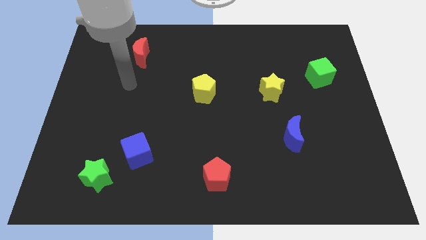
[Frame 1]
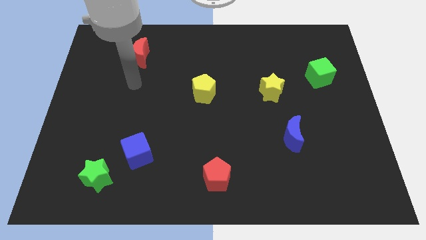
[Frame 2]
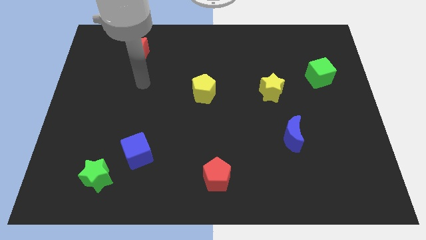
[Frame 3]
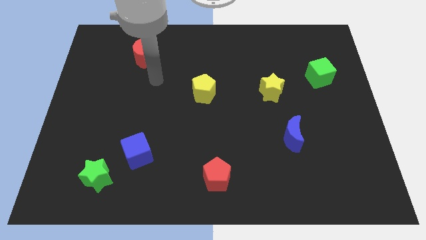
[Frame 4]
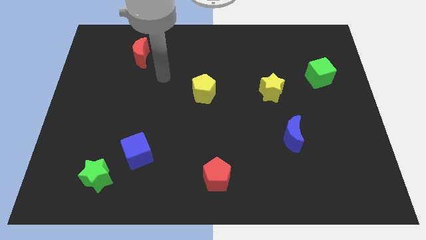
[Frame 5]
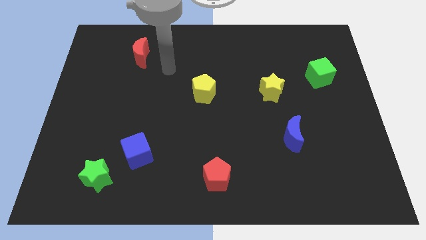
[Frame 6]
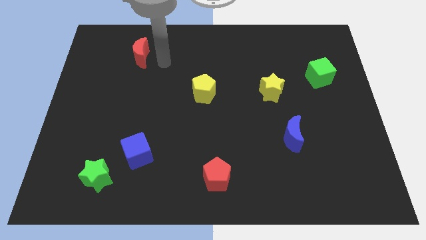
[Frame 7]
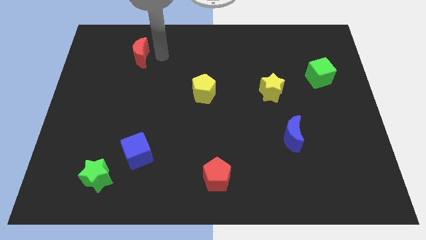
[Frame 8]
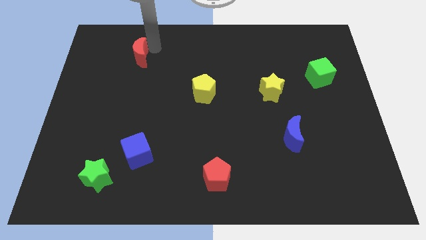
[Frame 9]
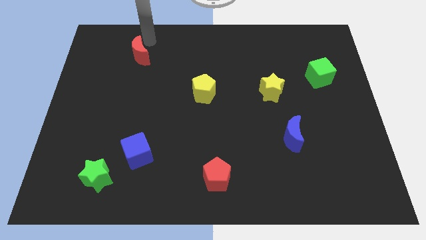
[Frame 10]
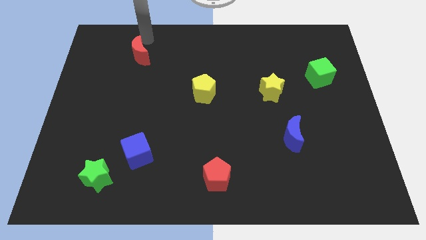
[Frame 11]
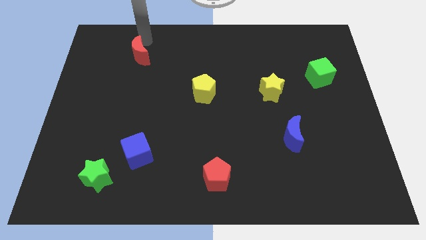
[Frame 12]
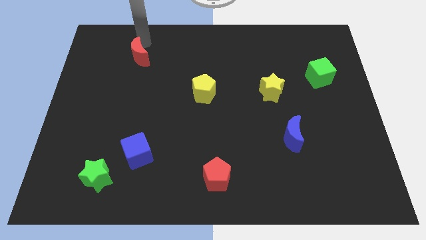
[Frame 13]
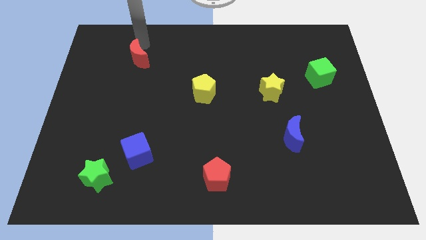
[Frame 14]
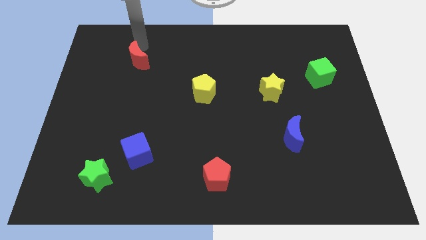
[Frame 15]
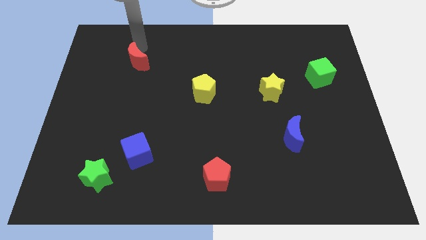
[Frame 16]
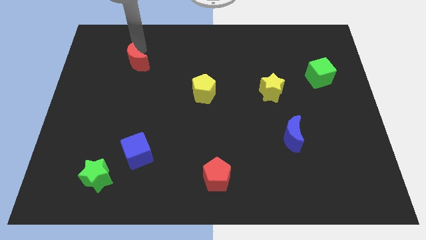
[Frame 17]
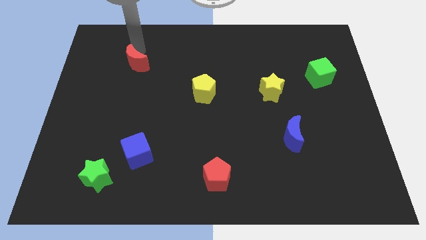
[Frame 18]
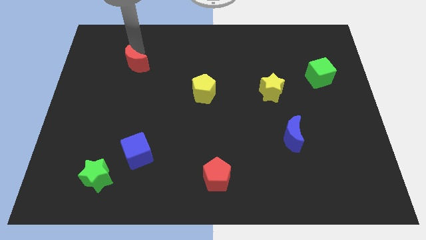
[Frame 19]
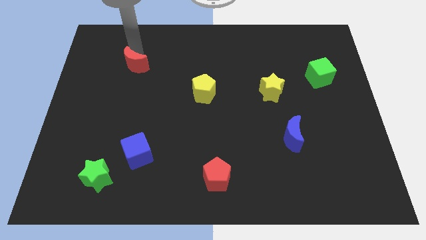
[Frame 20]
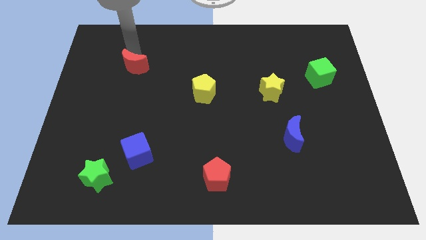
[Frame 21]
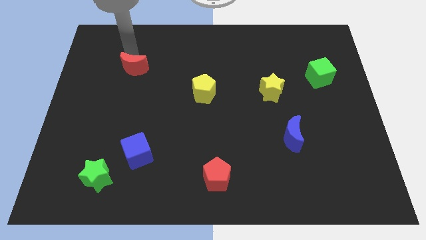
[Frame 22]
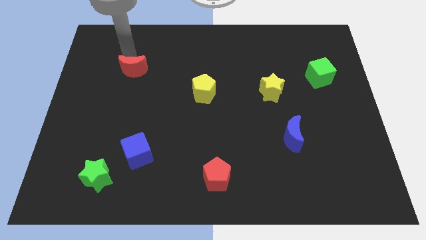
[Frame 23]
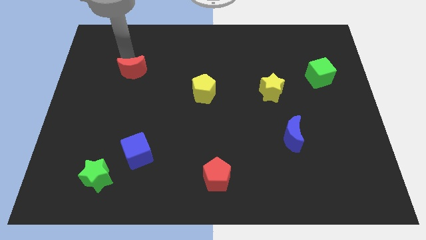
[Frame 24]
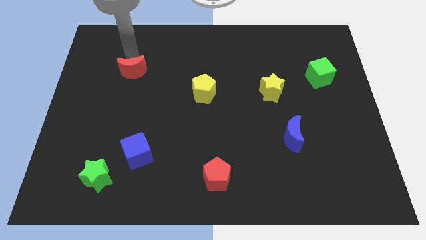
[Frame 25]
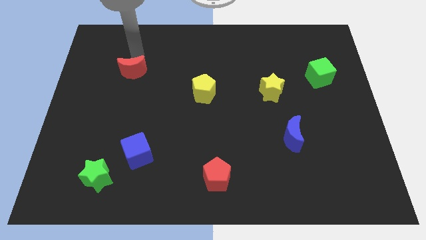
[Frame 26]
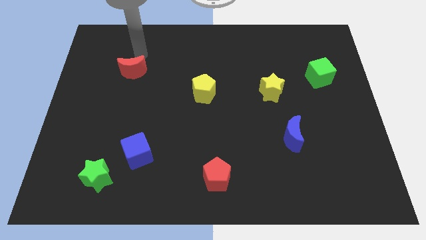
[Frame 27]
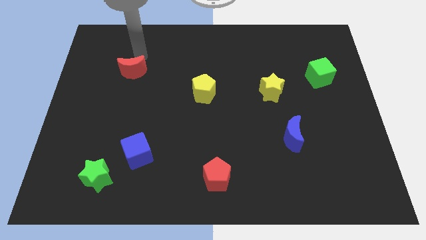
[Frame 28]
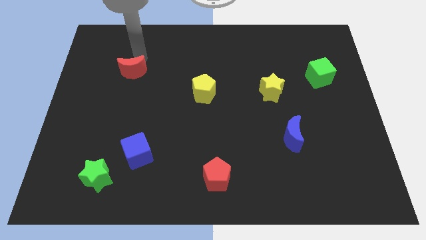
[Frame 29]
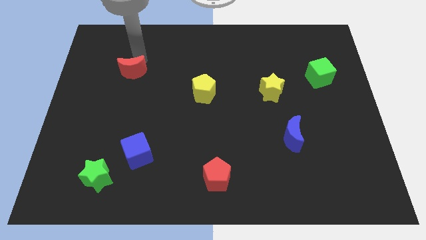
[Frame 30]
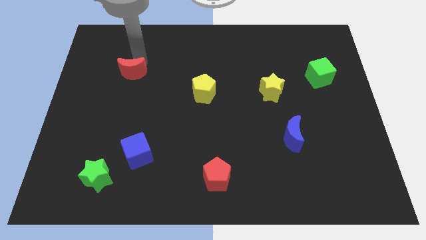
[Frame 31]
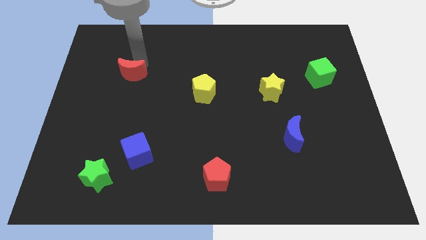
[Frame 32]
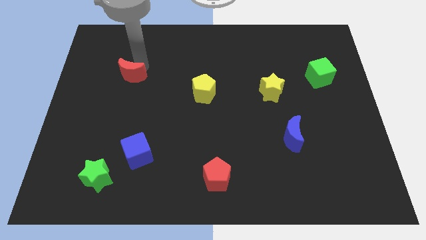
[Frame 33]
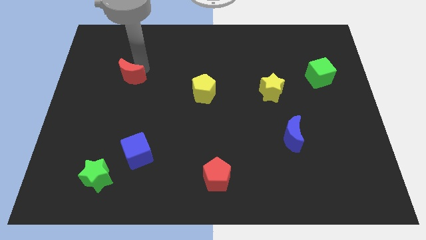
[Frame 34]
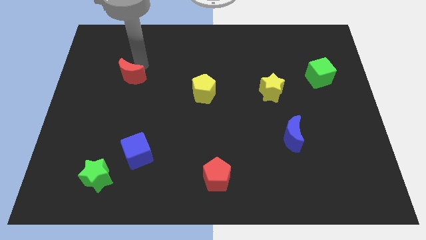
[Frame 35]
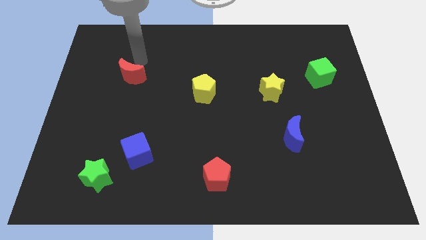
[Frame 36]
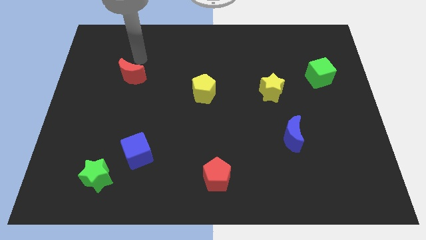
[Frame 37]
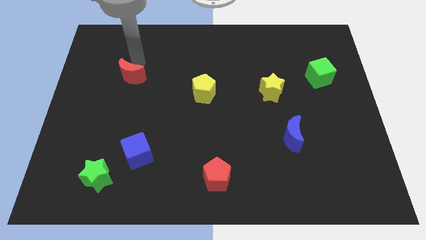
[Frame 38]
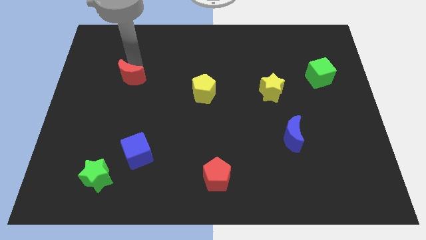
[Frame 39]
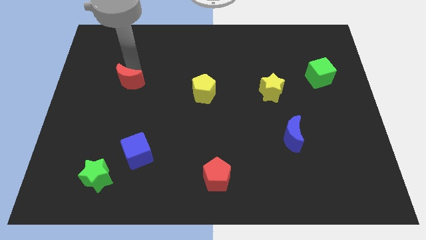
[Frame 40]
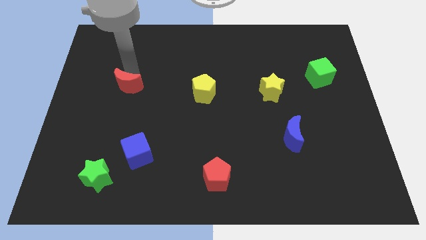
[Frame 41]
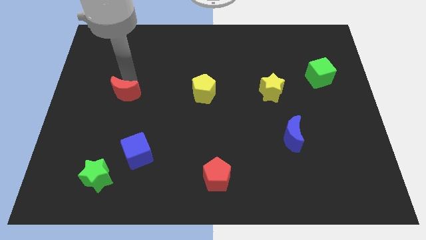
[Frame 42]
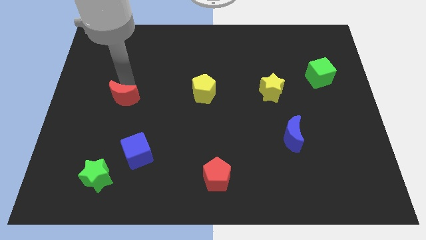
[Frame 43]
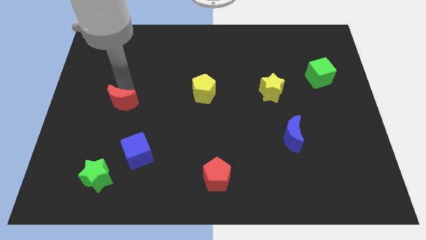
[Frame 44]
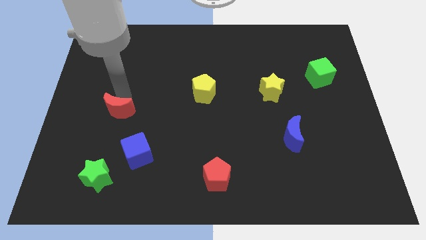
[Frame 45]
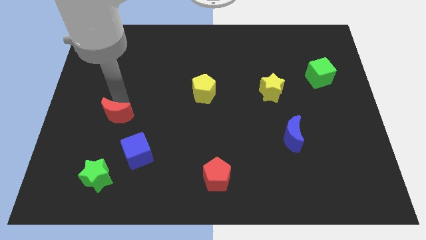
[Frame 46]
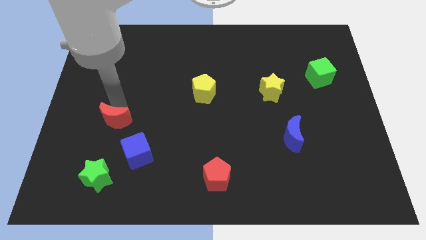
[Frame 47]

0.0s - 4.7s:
slide the red moon downwards

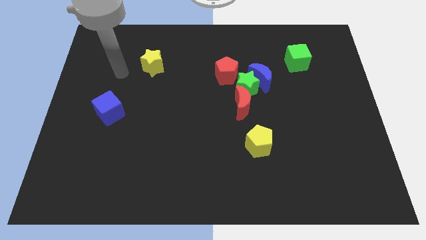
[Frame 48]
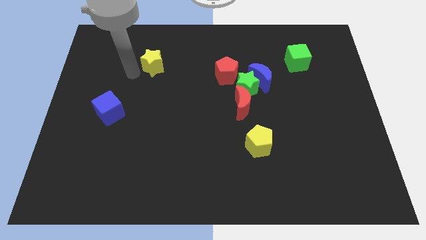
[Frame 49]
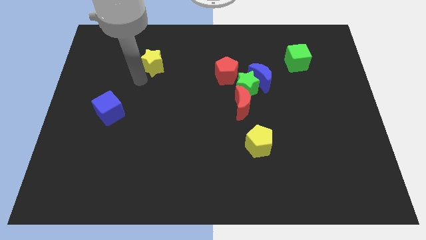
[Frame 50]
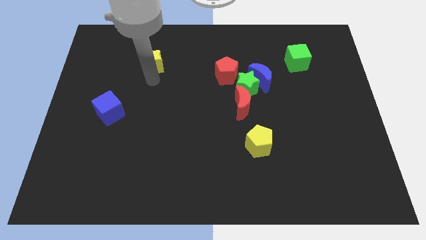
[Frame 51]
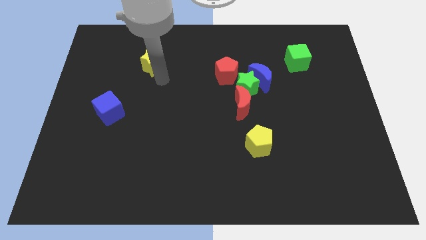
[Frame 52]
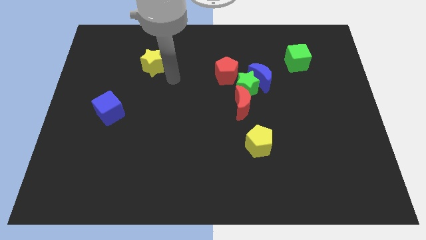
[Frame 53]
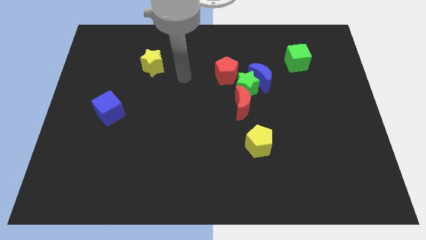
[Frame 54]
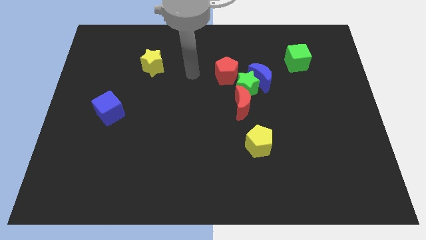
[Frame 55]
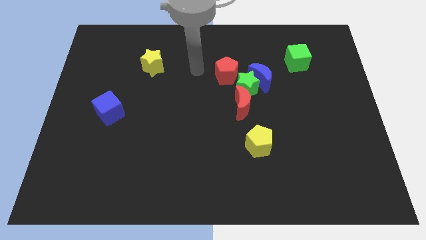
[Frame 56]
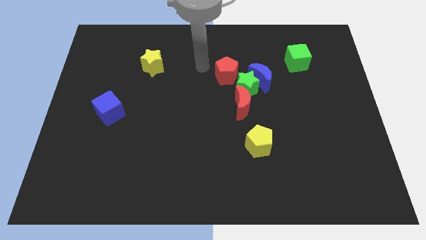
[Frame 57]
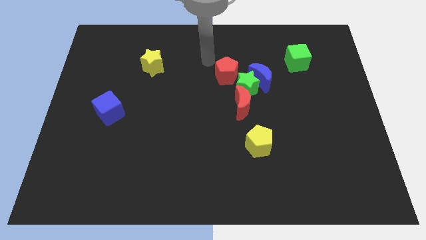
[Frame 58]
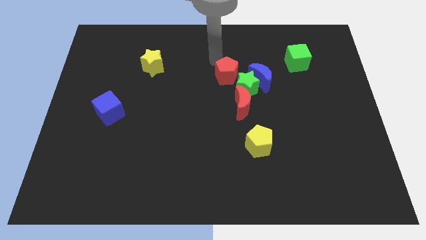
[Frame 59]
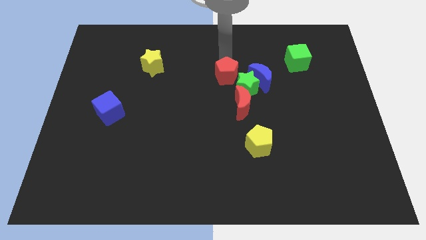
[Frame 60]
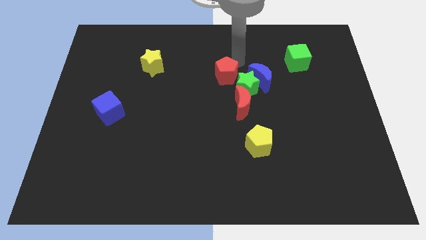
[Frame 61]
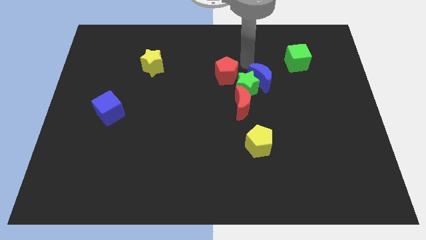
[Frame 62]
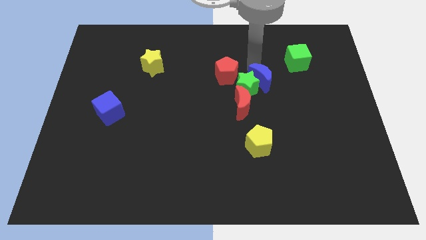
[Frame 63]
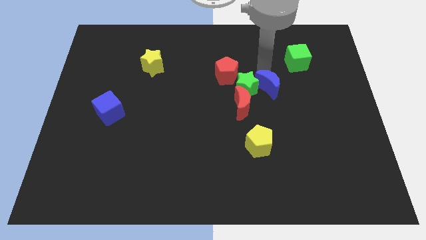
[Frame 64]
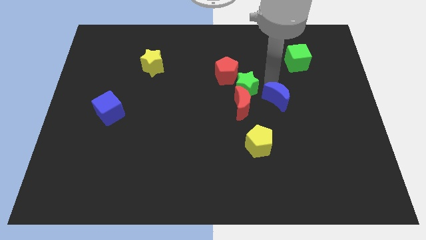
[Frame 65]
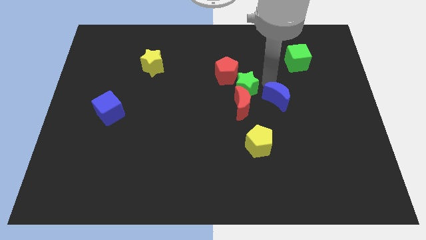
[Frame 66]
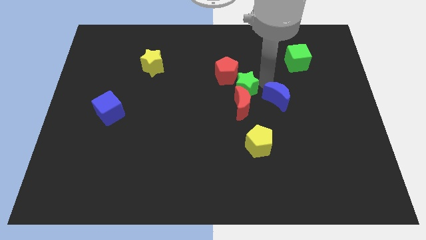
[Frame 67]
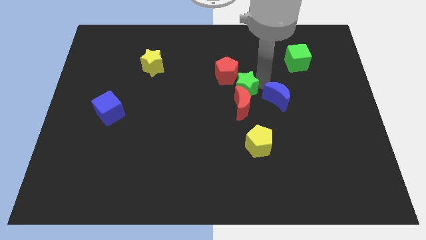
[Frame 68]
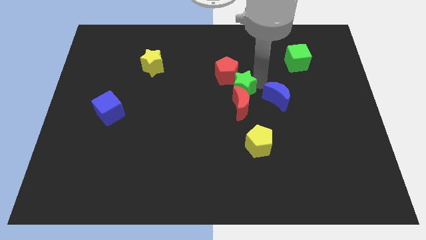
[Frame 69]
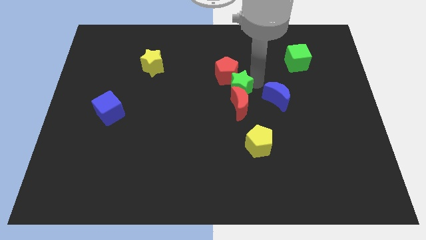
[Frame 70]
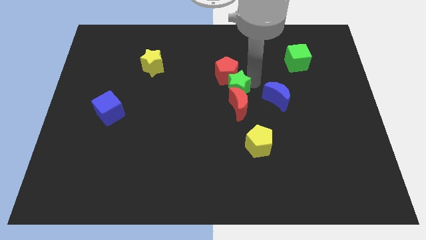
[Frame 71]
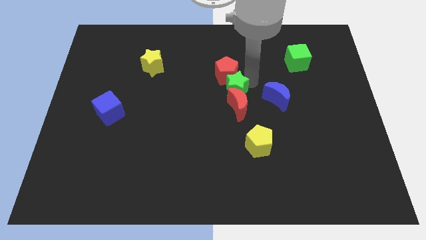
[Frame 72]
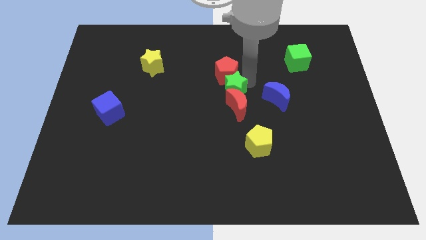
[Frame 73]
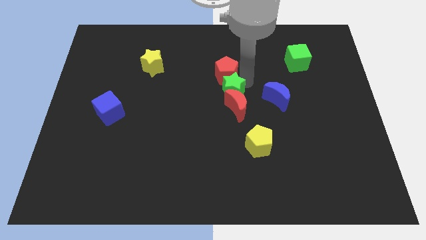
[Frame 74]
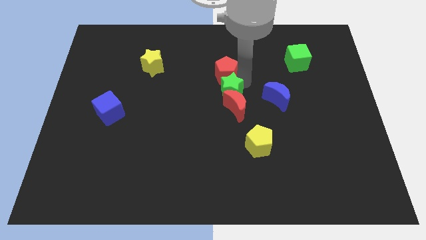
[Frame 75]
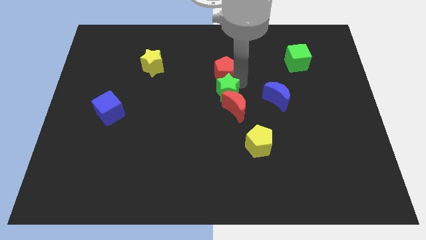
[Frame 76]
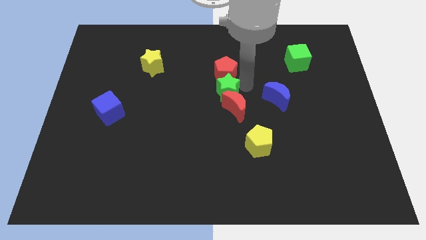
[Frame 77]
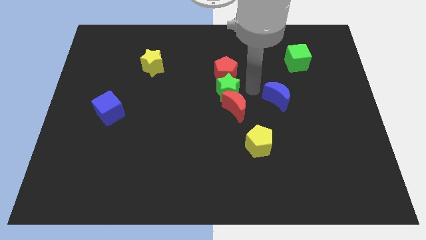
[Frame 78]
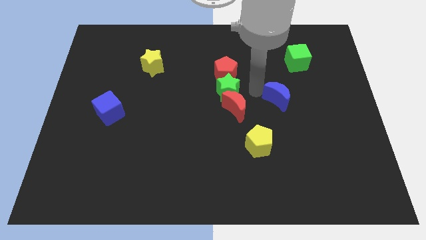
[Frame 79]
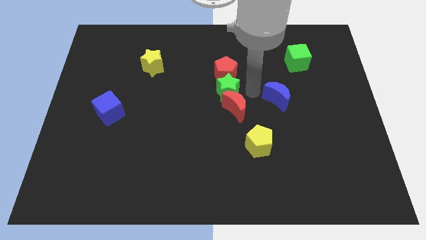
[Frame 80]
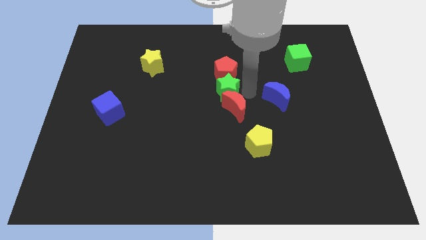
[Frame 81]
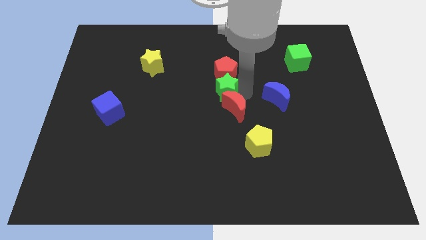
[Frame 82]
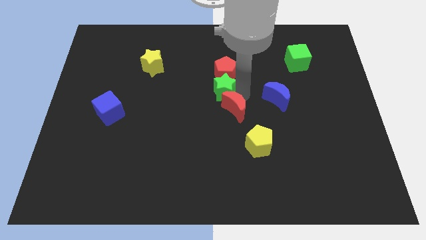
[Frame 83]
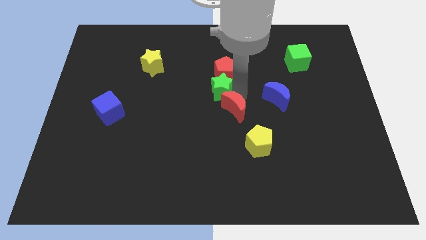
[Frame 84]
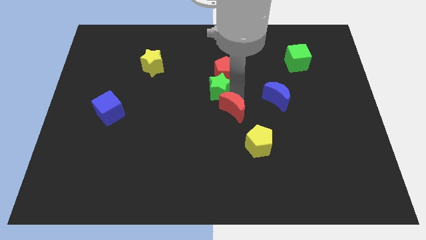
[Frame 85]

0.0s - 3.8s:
slide the green star slightly to the left

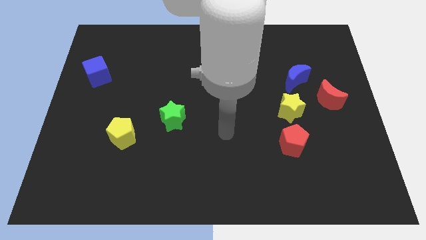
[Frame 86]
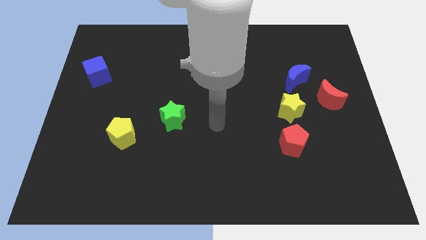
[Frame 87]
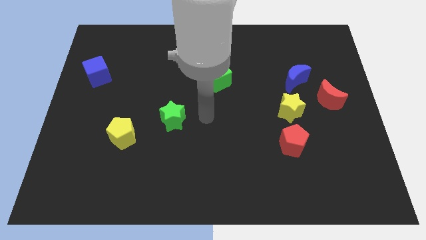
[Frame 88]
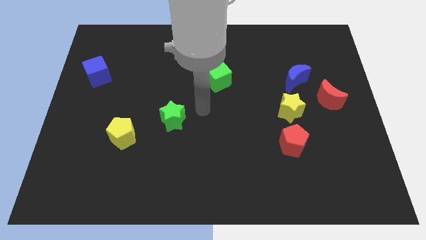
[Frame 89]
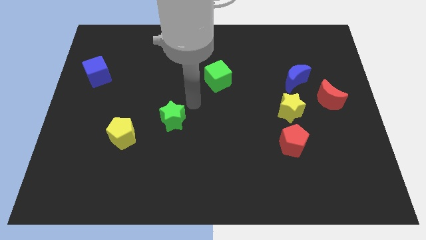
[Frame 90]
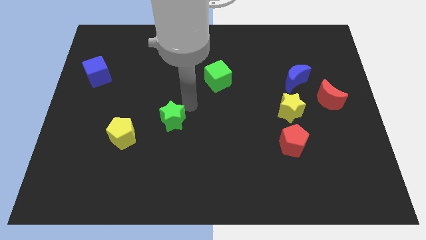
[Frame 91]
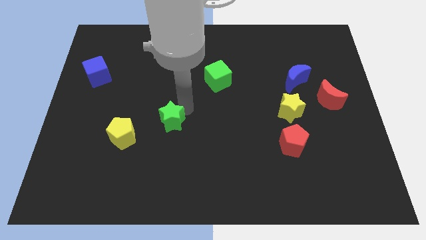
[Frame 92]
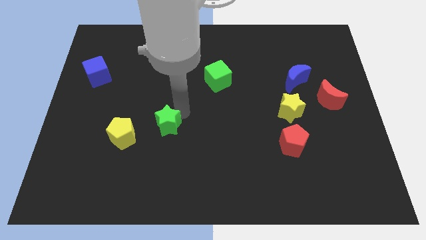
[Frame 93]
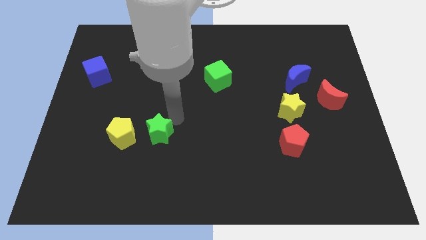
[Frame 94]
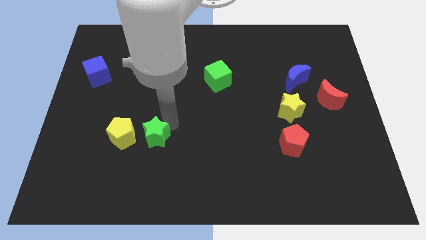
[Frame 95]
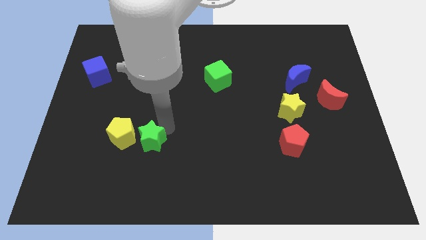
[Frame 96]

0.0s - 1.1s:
move the green star downwards and left diagonally a little bit
